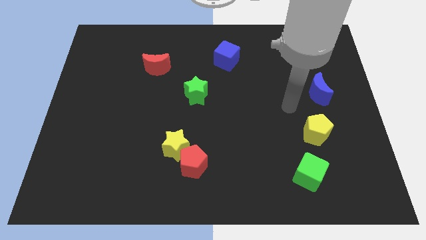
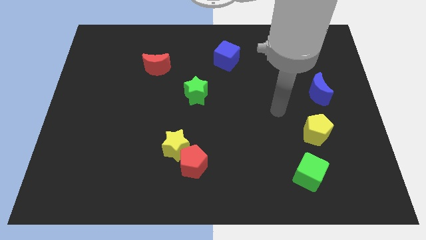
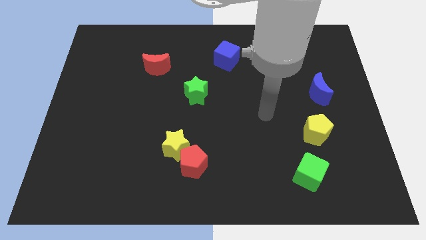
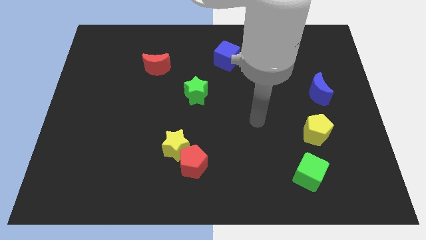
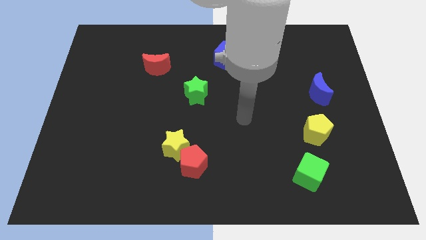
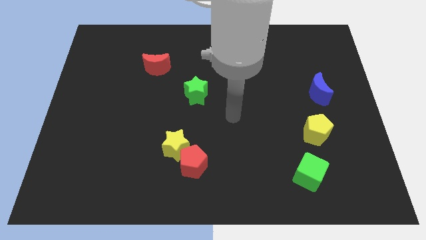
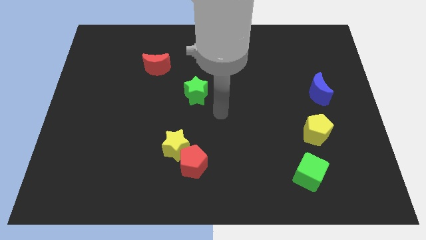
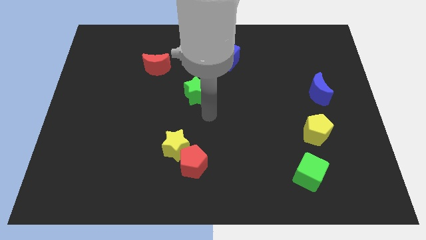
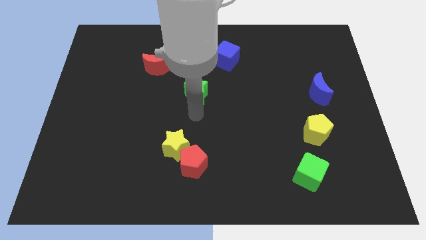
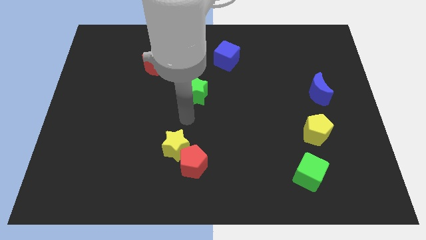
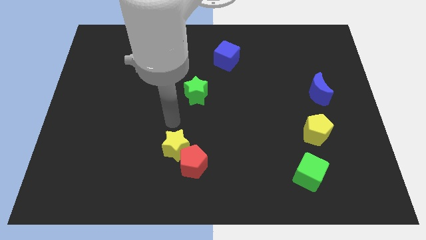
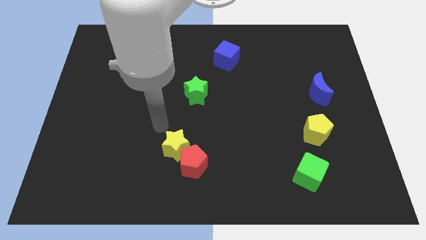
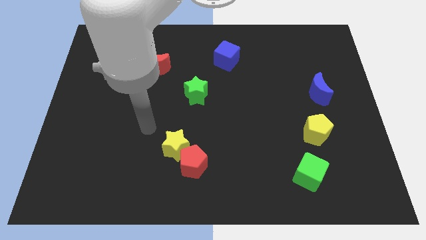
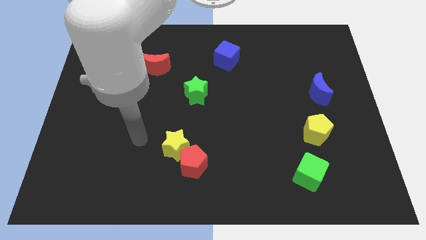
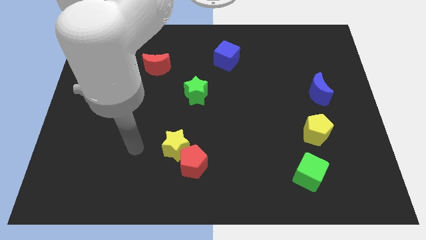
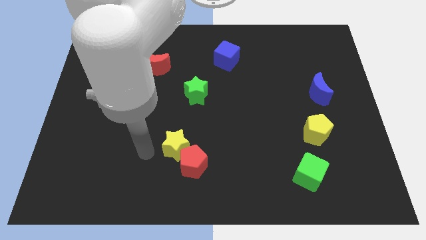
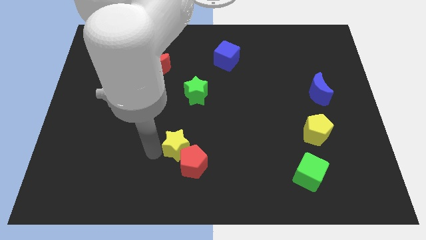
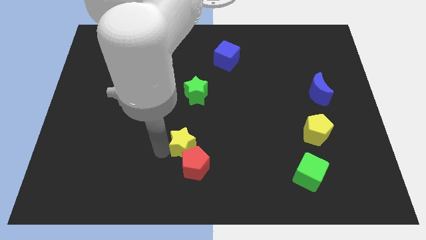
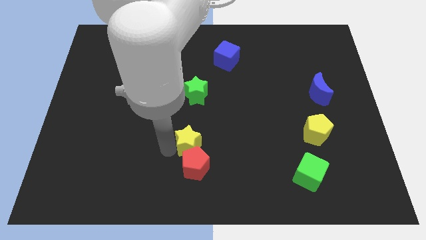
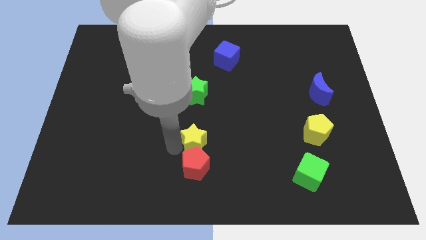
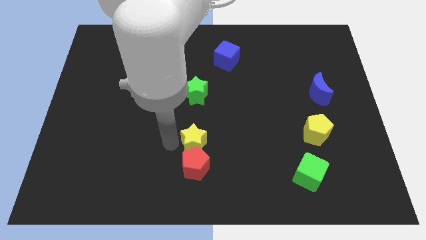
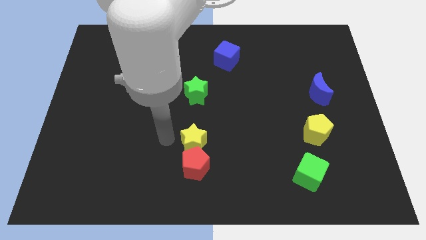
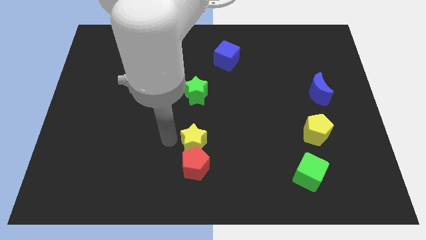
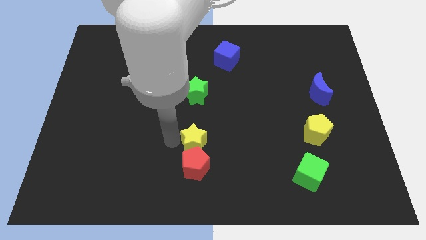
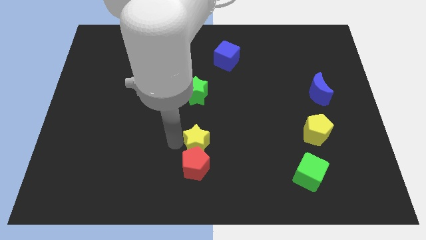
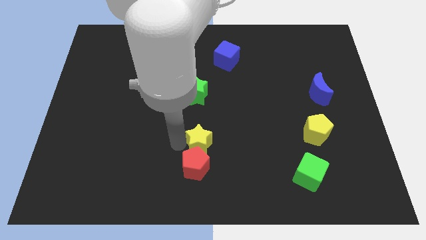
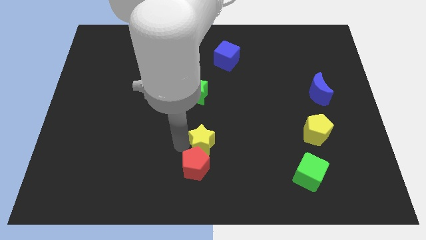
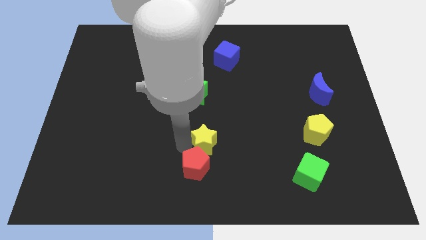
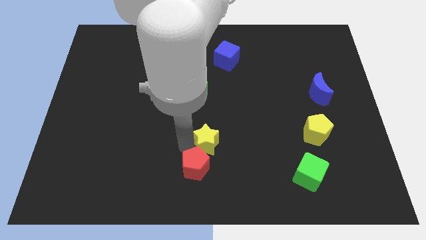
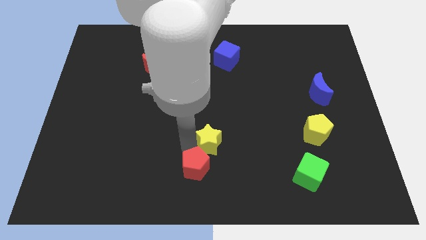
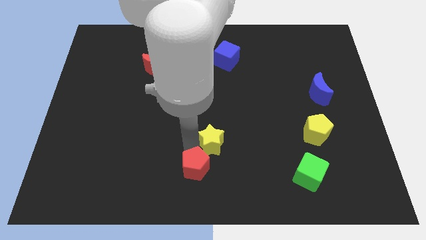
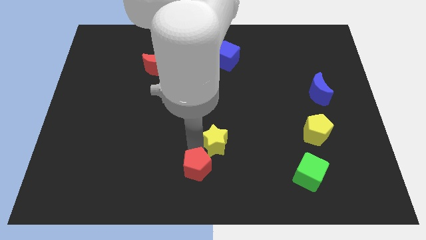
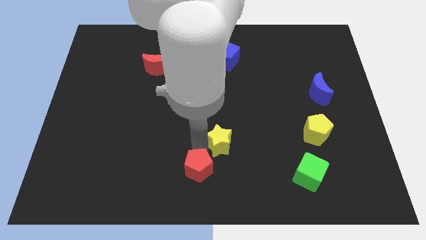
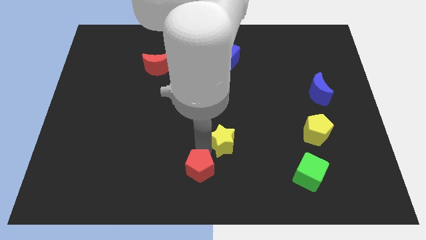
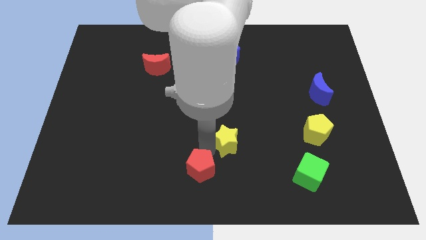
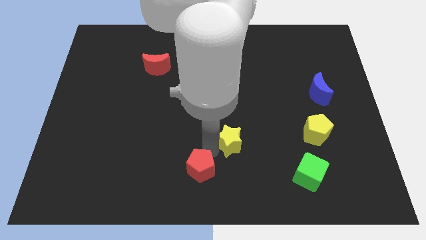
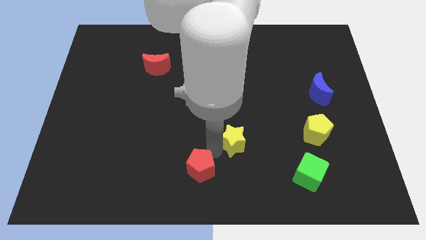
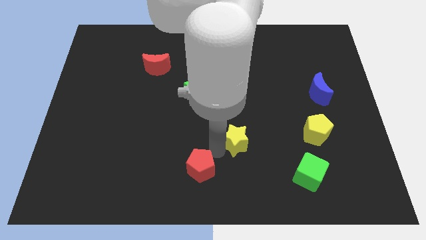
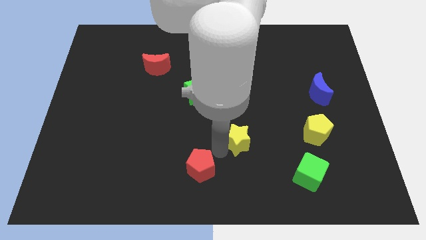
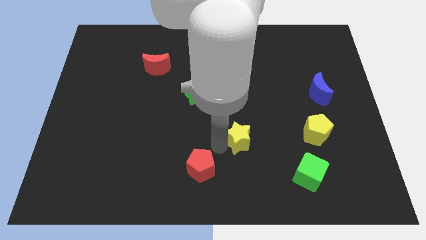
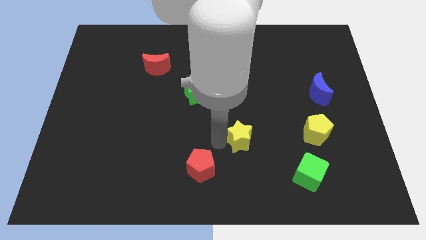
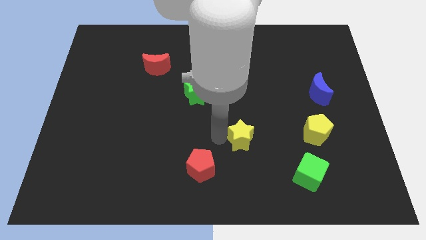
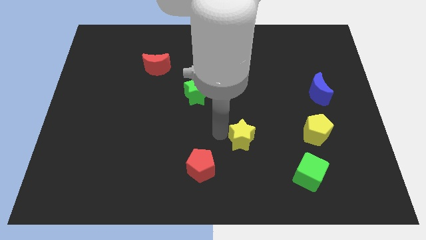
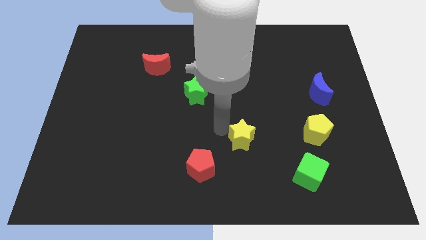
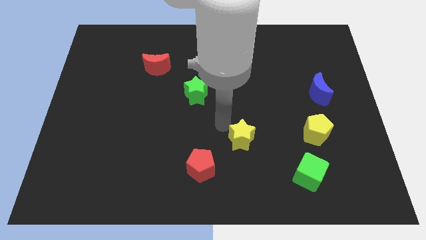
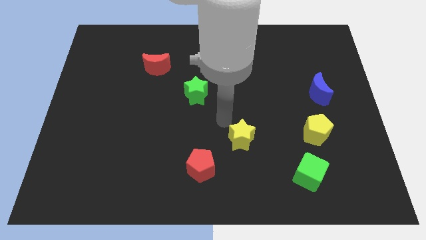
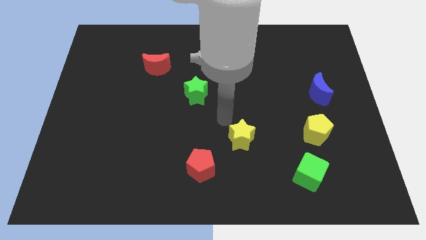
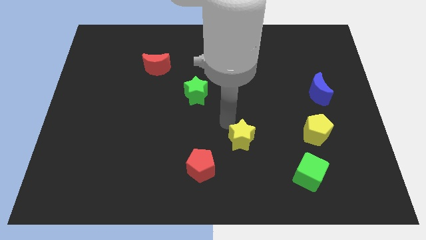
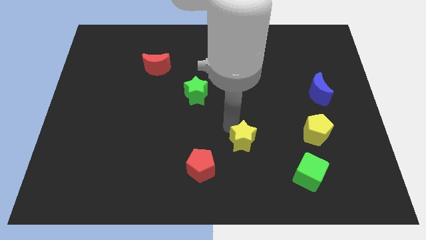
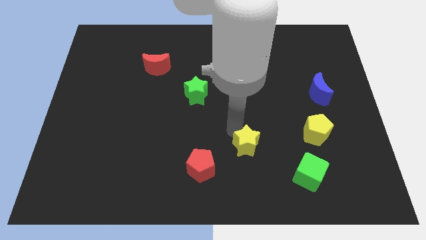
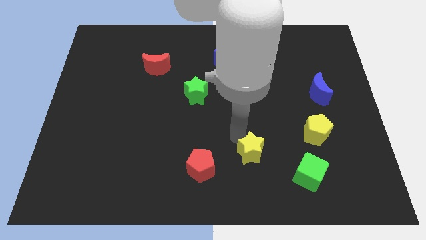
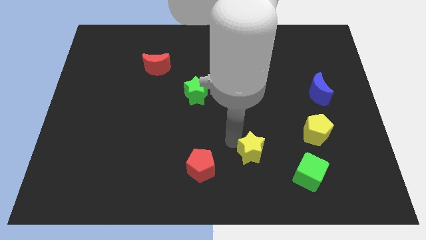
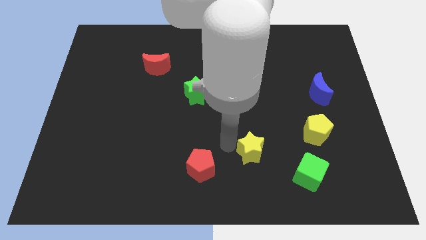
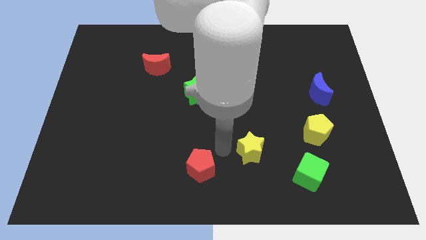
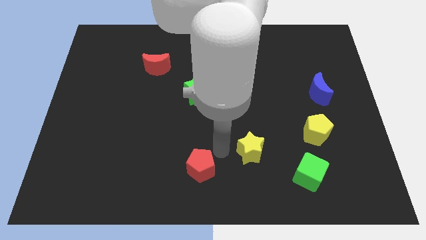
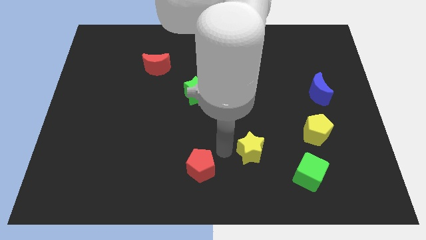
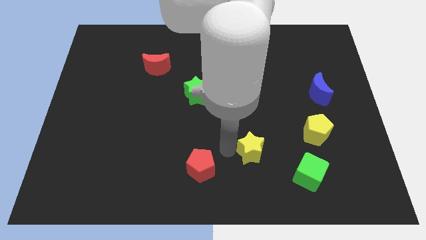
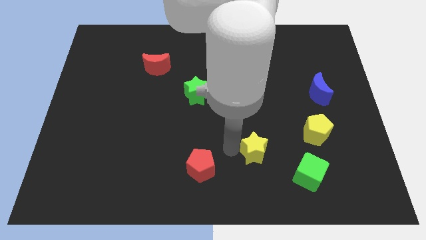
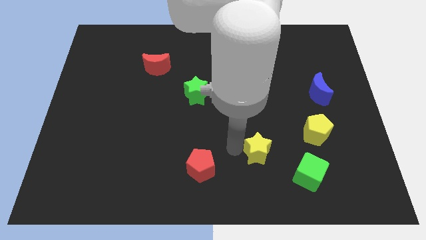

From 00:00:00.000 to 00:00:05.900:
push the yellow star to the top left of the green cube
